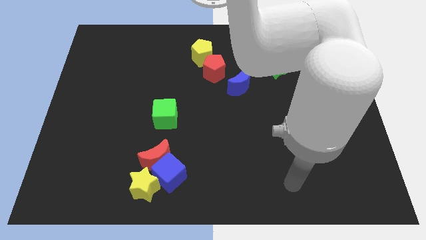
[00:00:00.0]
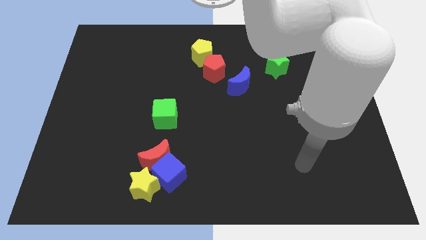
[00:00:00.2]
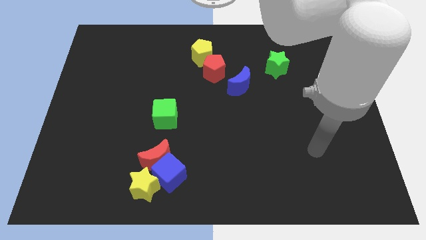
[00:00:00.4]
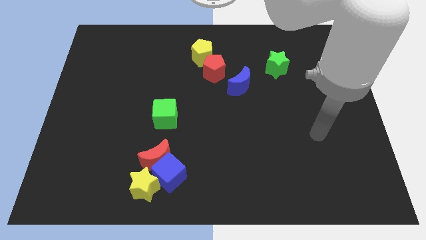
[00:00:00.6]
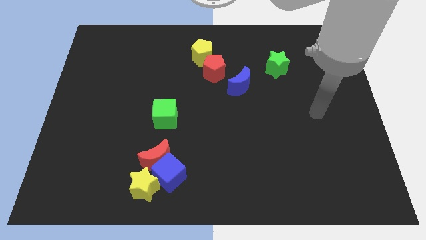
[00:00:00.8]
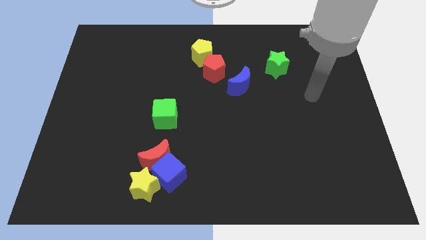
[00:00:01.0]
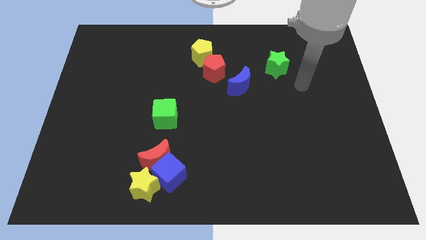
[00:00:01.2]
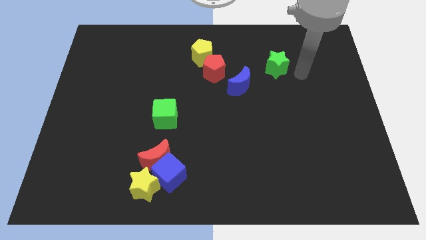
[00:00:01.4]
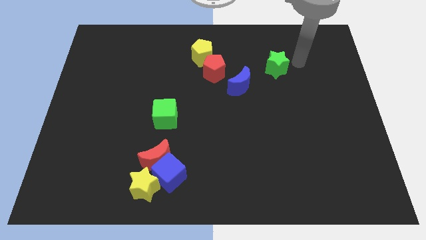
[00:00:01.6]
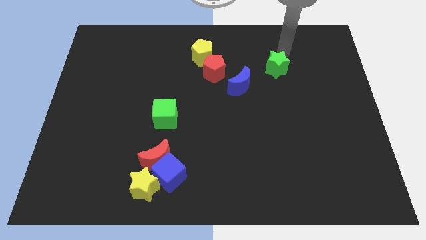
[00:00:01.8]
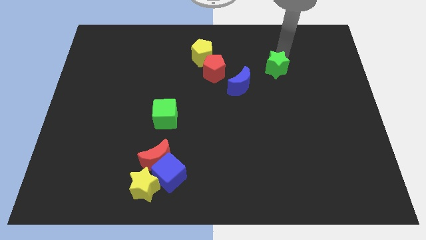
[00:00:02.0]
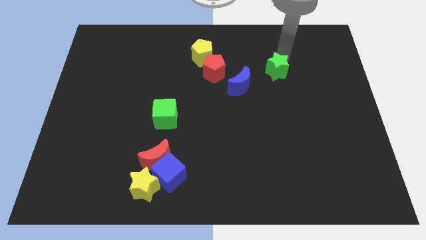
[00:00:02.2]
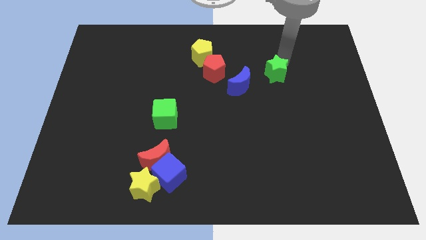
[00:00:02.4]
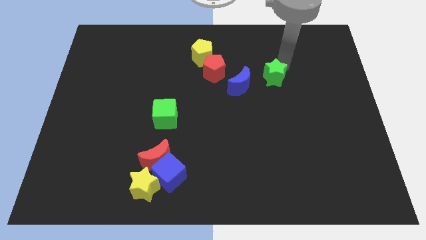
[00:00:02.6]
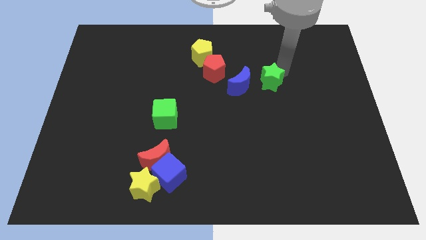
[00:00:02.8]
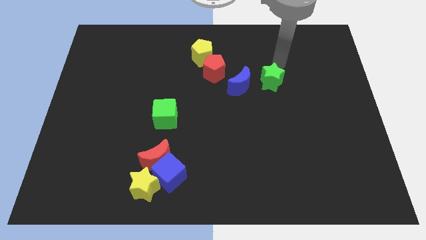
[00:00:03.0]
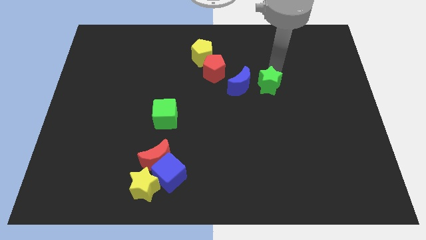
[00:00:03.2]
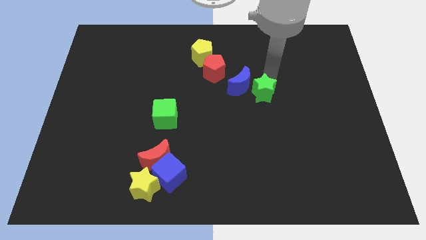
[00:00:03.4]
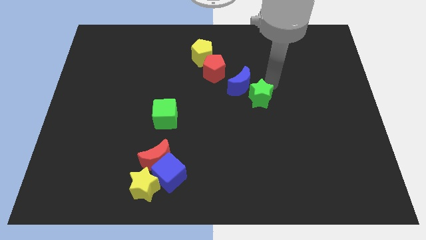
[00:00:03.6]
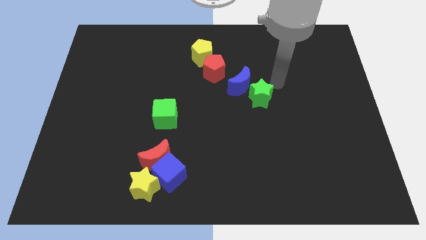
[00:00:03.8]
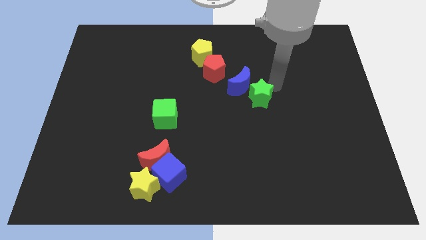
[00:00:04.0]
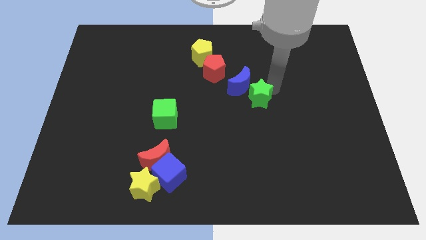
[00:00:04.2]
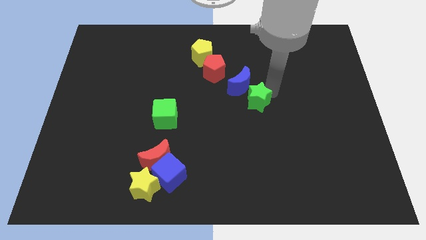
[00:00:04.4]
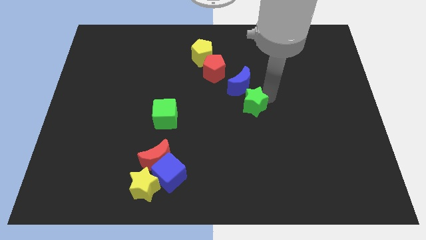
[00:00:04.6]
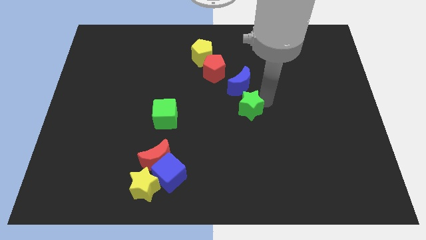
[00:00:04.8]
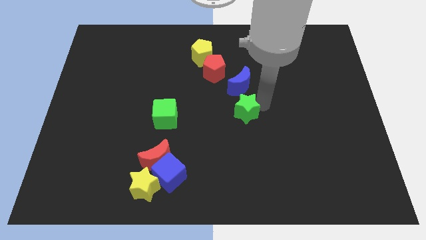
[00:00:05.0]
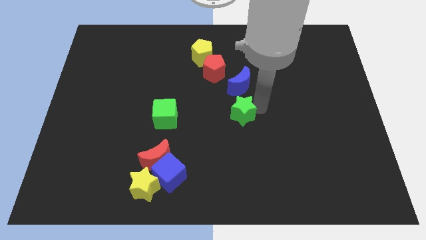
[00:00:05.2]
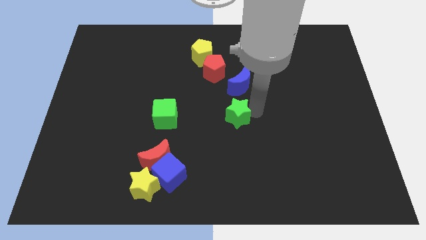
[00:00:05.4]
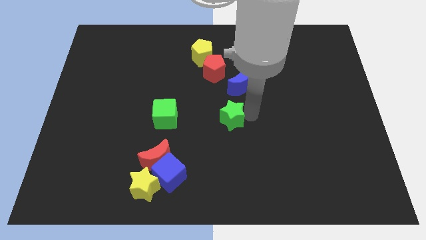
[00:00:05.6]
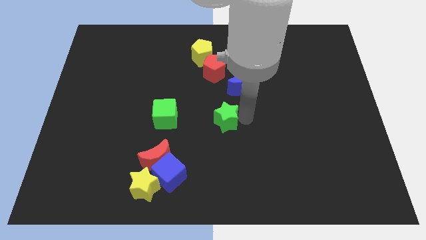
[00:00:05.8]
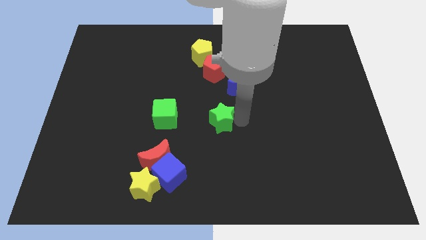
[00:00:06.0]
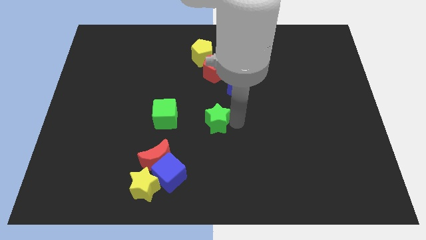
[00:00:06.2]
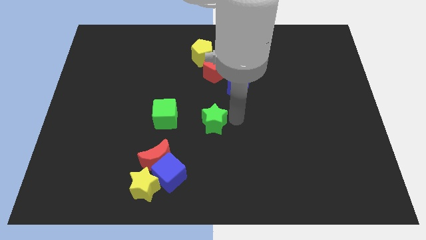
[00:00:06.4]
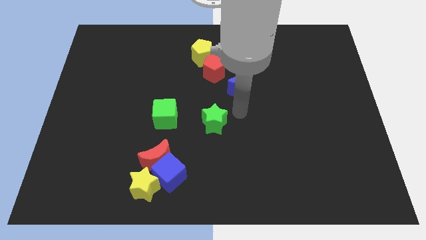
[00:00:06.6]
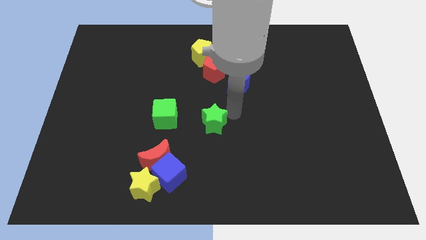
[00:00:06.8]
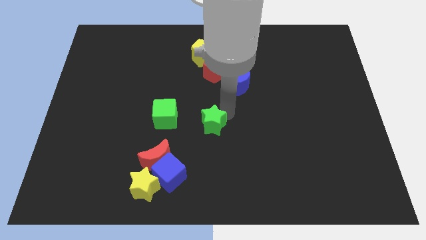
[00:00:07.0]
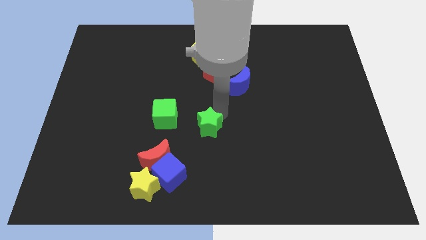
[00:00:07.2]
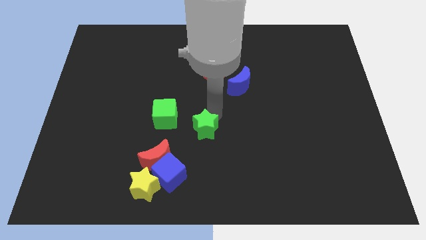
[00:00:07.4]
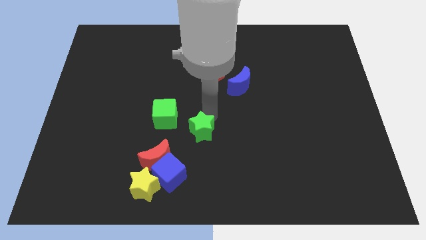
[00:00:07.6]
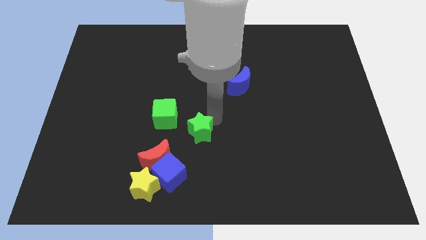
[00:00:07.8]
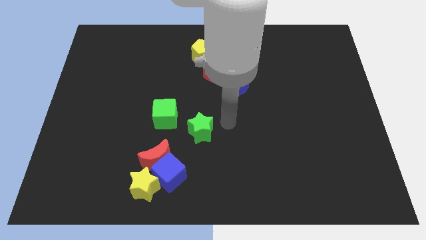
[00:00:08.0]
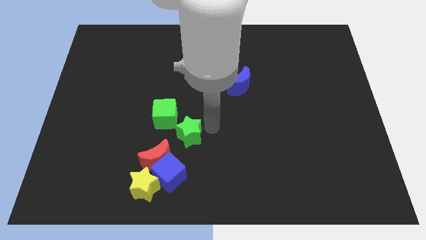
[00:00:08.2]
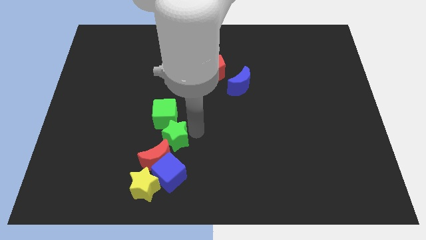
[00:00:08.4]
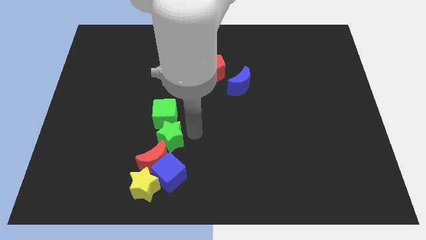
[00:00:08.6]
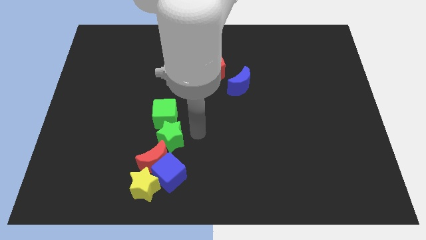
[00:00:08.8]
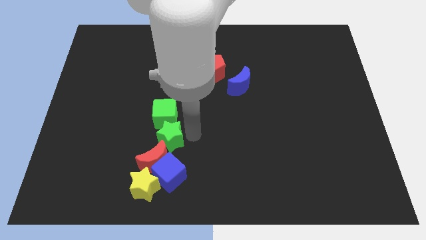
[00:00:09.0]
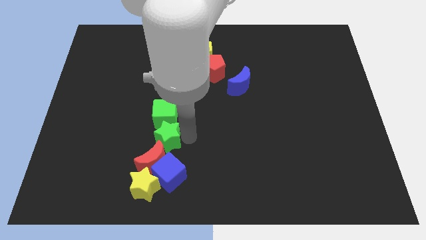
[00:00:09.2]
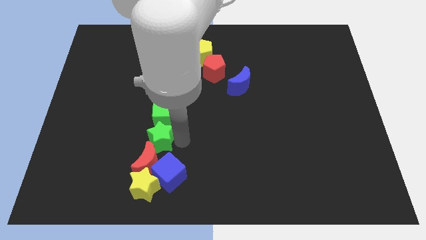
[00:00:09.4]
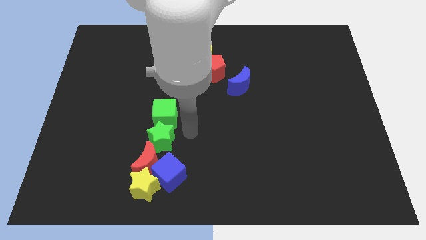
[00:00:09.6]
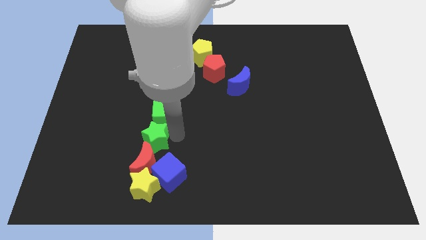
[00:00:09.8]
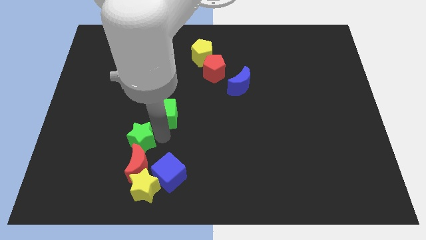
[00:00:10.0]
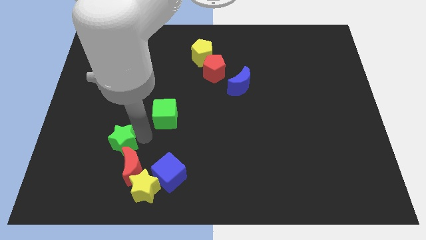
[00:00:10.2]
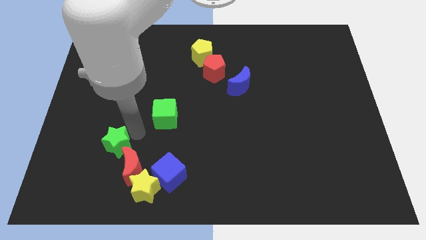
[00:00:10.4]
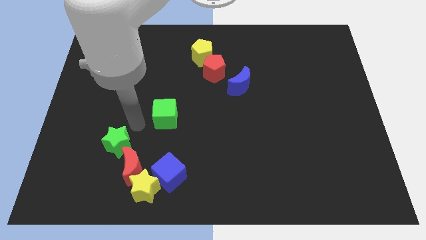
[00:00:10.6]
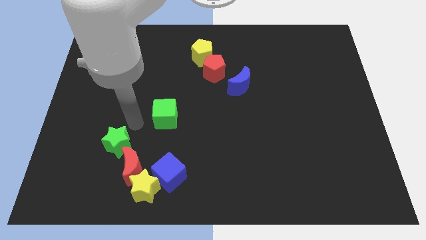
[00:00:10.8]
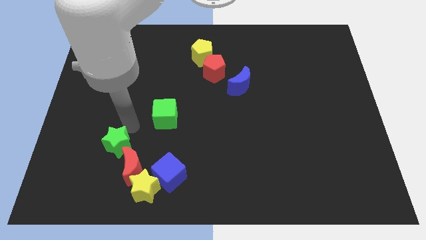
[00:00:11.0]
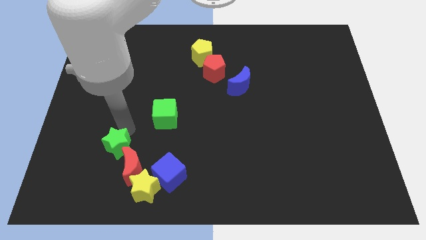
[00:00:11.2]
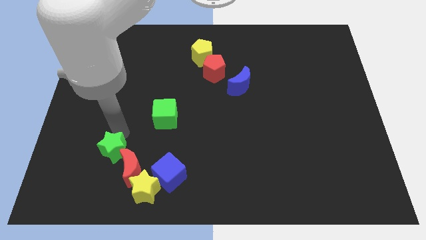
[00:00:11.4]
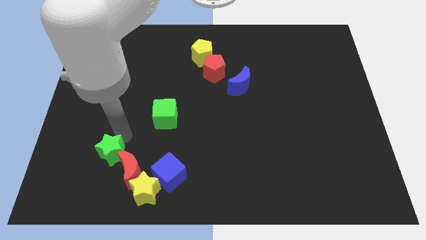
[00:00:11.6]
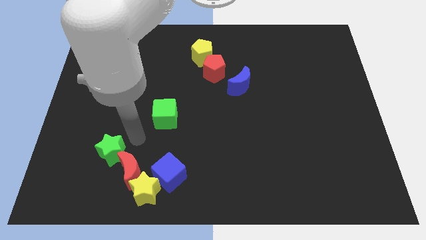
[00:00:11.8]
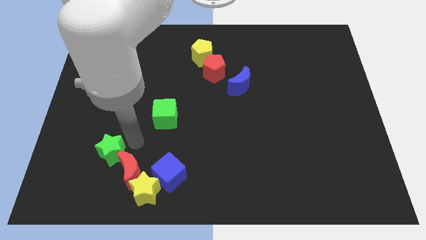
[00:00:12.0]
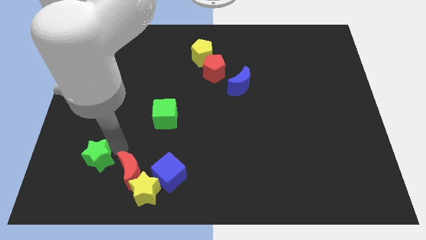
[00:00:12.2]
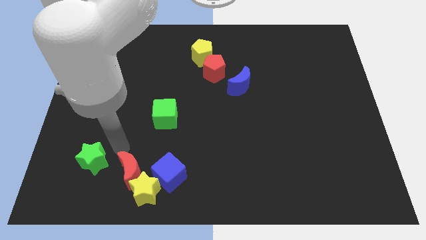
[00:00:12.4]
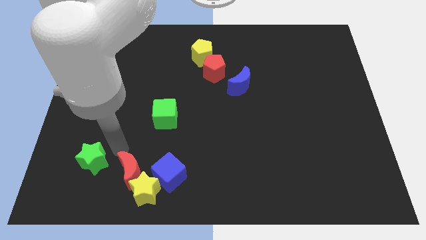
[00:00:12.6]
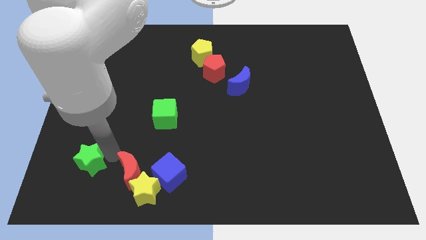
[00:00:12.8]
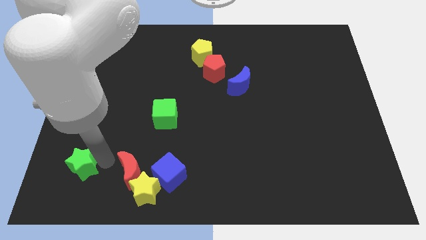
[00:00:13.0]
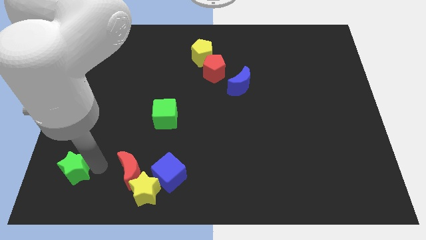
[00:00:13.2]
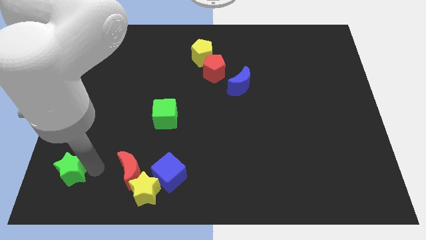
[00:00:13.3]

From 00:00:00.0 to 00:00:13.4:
put the green star to the bottom left of the board
